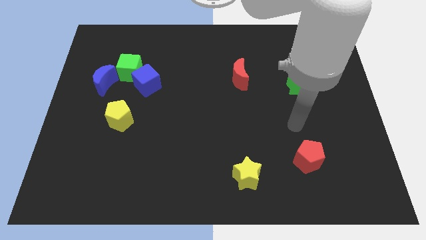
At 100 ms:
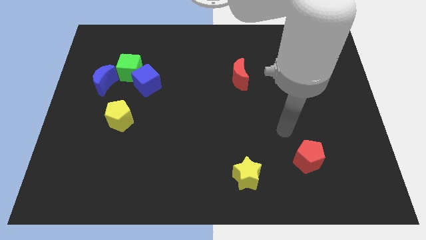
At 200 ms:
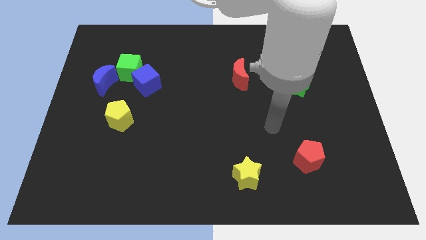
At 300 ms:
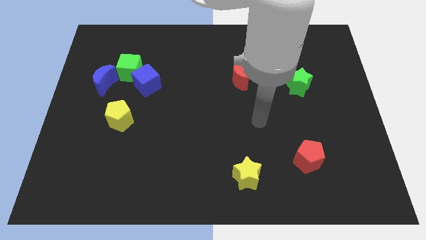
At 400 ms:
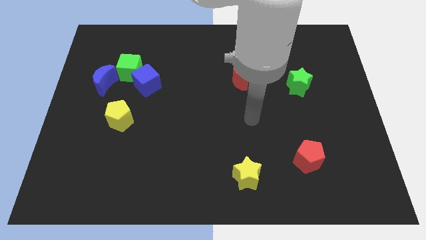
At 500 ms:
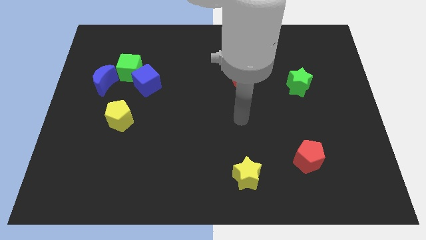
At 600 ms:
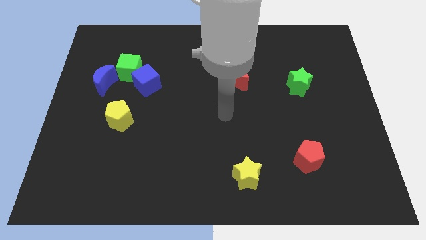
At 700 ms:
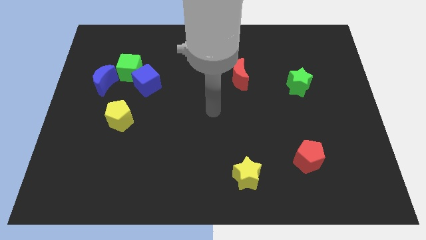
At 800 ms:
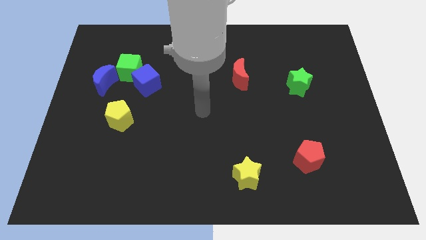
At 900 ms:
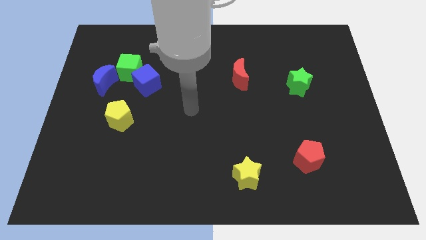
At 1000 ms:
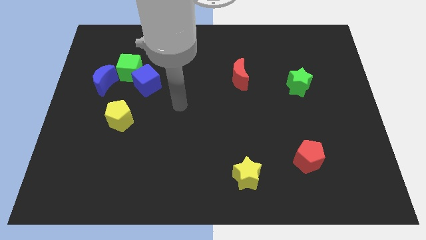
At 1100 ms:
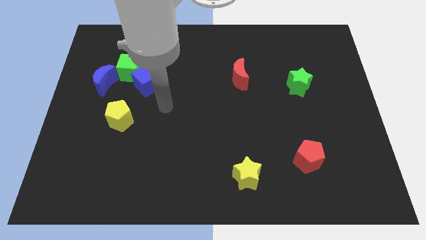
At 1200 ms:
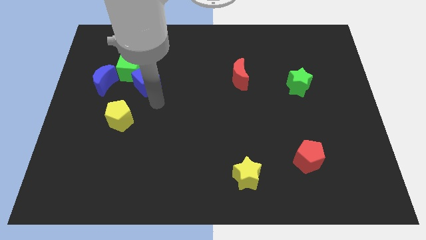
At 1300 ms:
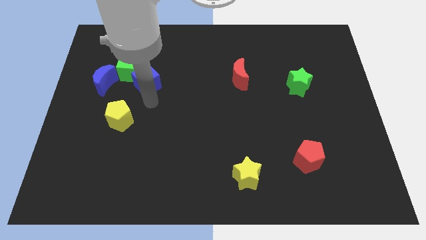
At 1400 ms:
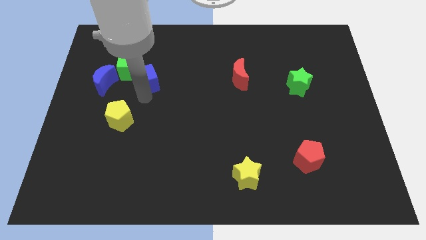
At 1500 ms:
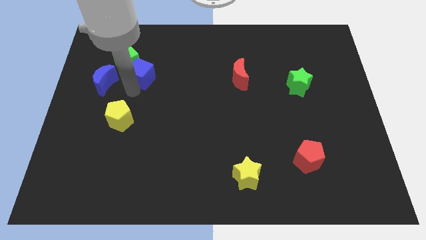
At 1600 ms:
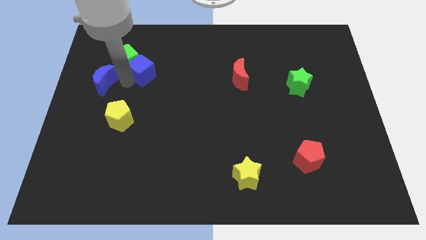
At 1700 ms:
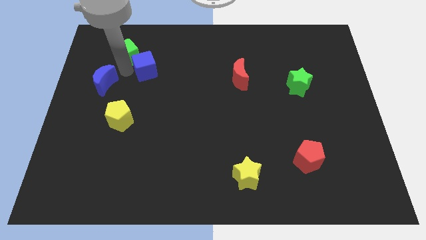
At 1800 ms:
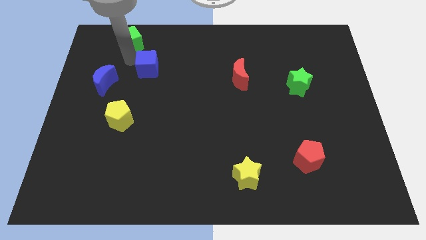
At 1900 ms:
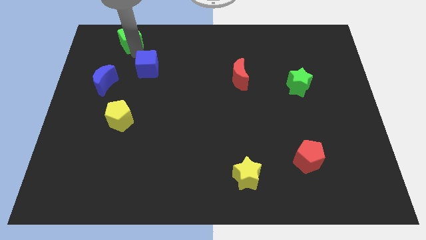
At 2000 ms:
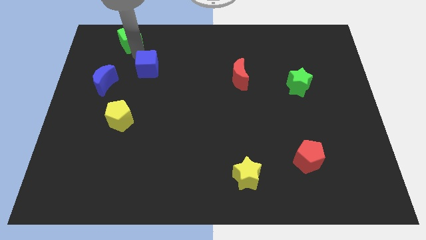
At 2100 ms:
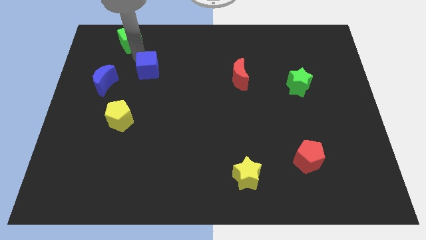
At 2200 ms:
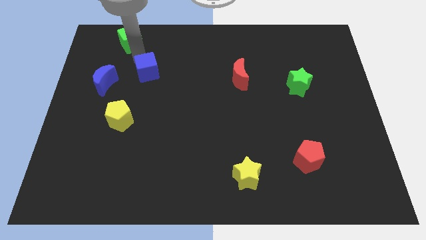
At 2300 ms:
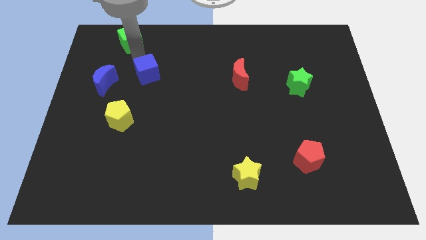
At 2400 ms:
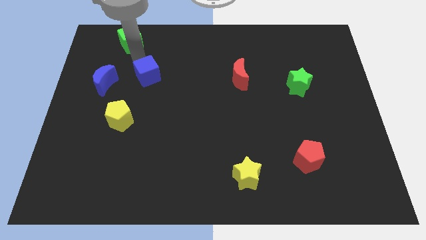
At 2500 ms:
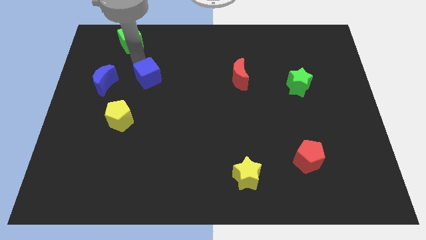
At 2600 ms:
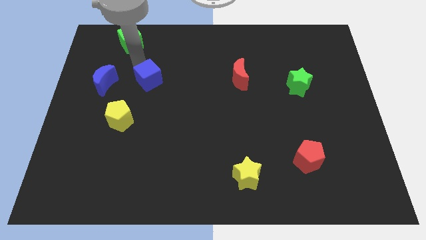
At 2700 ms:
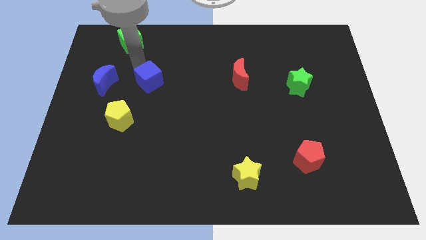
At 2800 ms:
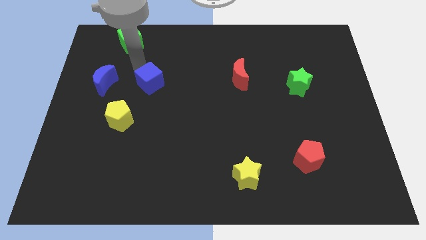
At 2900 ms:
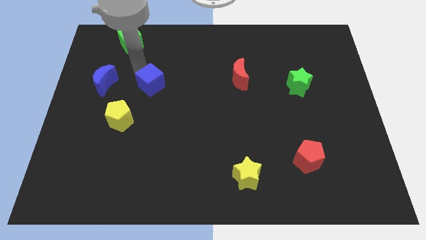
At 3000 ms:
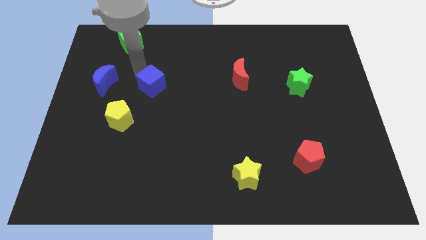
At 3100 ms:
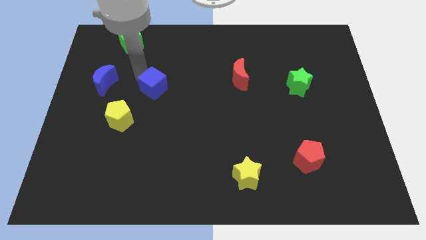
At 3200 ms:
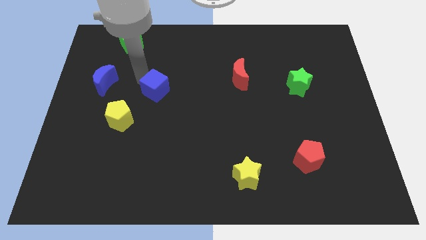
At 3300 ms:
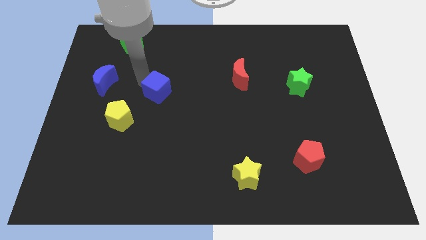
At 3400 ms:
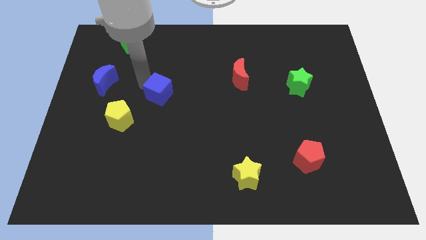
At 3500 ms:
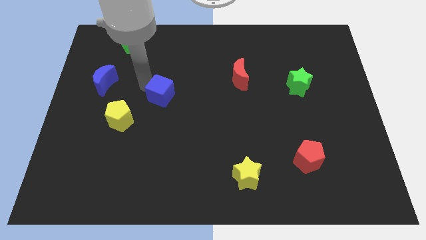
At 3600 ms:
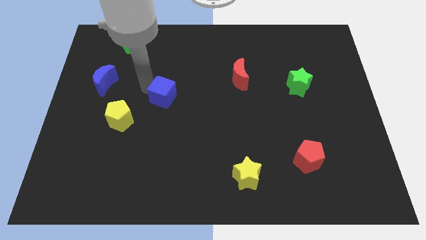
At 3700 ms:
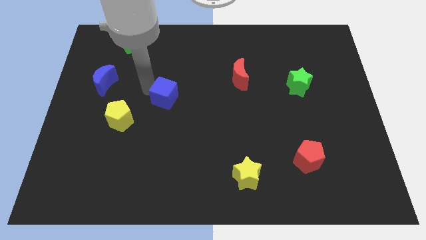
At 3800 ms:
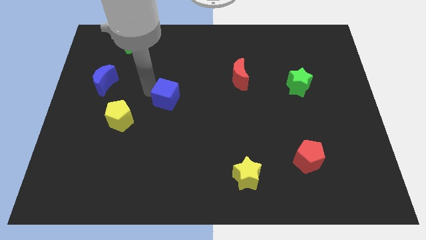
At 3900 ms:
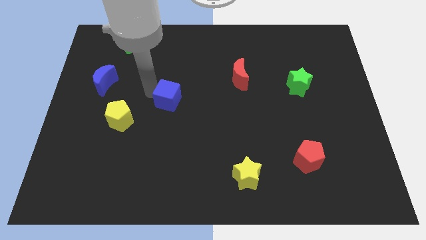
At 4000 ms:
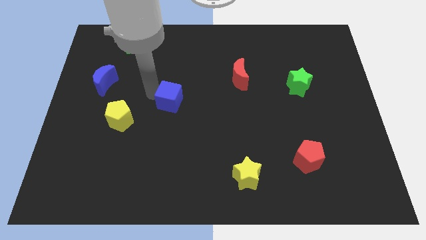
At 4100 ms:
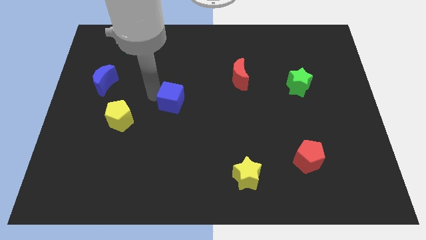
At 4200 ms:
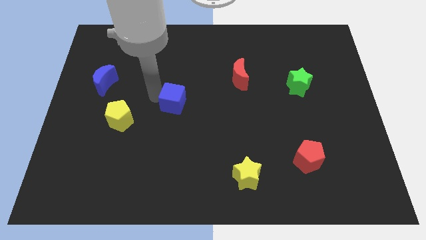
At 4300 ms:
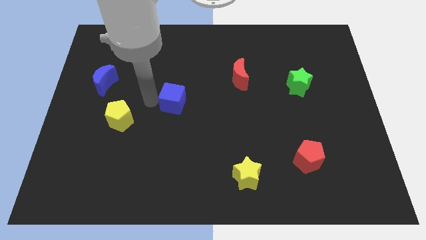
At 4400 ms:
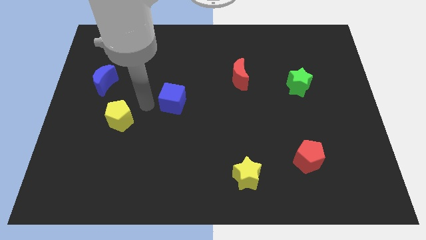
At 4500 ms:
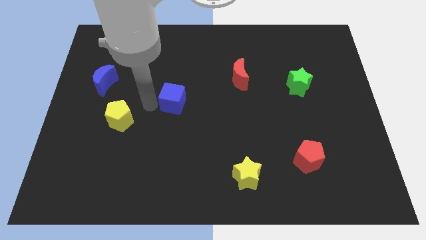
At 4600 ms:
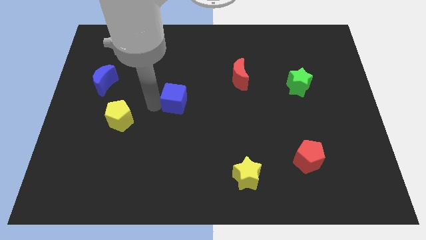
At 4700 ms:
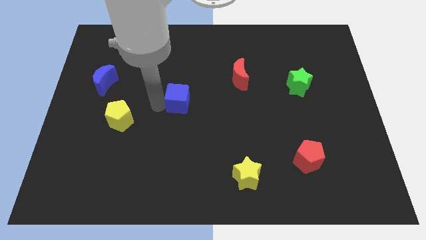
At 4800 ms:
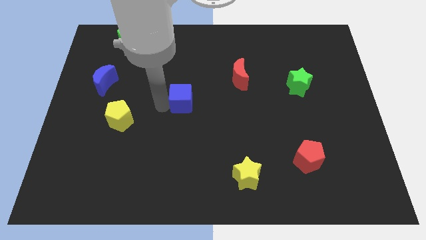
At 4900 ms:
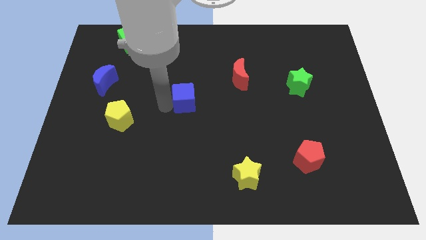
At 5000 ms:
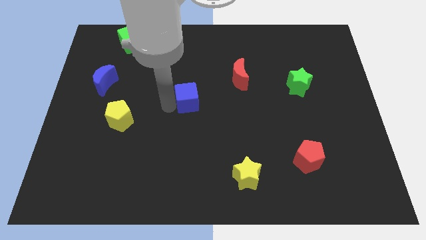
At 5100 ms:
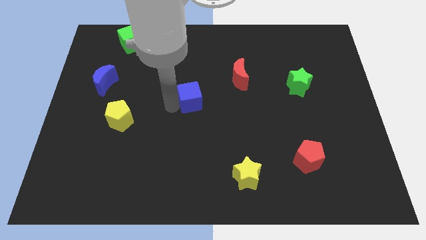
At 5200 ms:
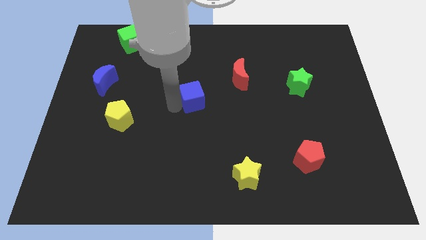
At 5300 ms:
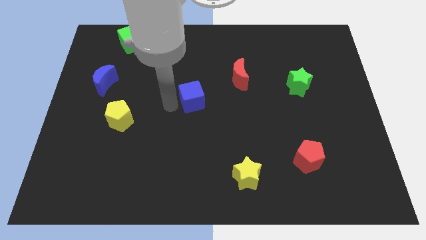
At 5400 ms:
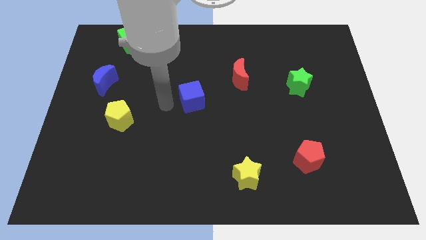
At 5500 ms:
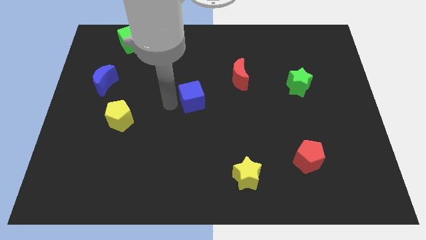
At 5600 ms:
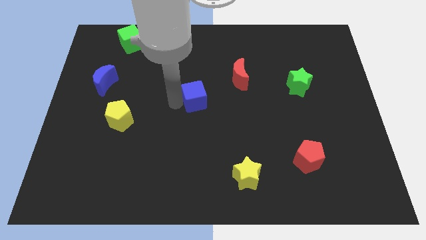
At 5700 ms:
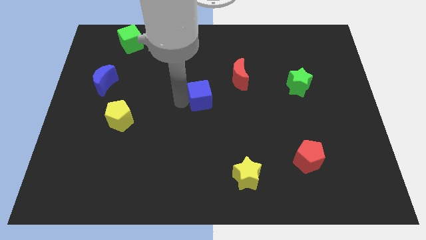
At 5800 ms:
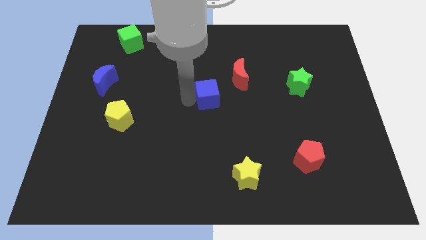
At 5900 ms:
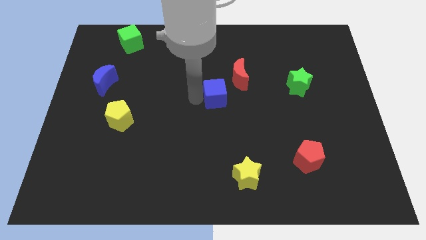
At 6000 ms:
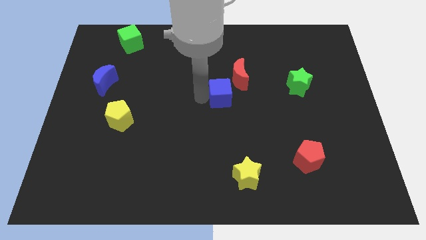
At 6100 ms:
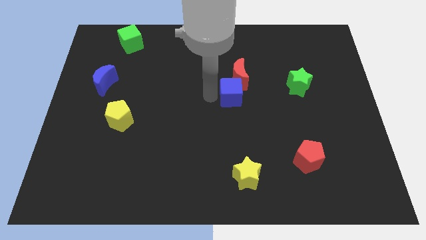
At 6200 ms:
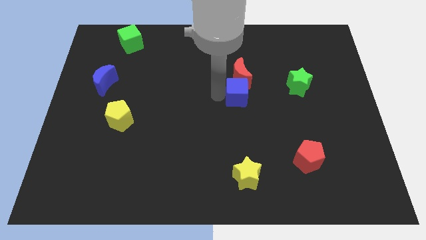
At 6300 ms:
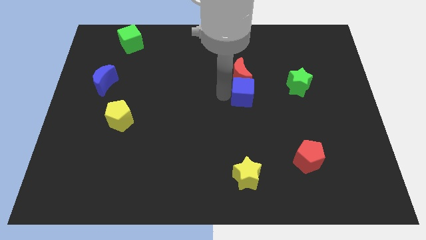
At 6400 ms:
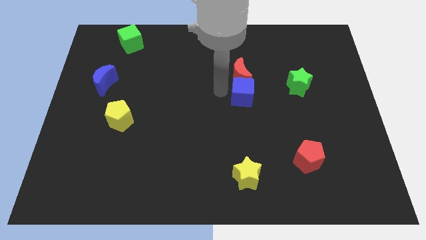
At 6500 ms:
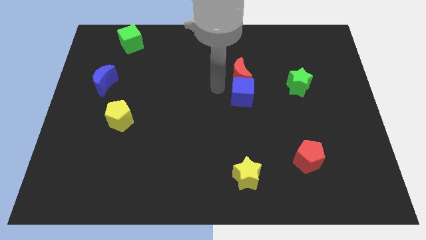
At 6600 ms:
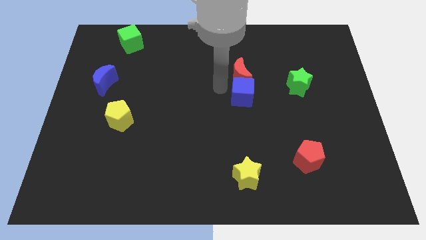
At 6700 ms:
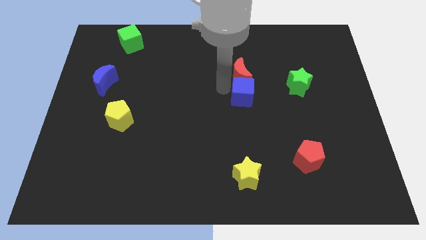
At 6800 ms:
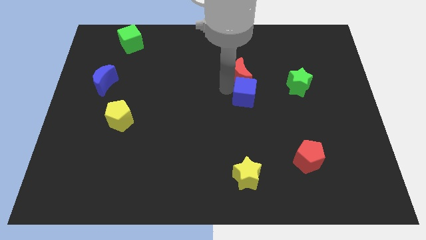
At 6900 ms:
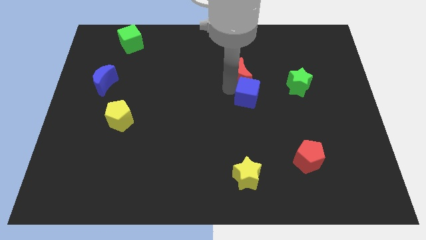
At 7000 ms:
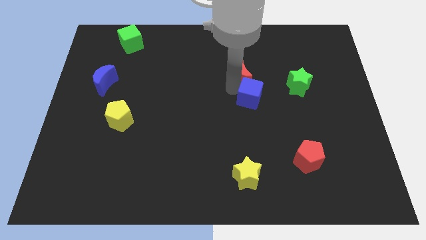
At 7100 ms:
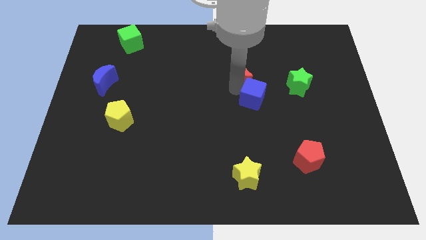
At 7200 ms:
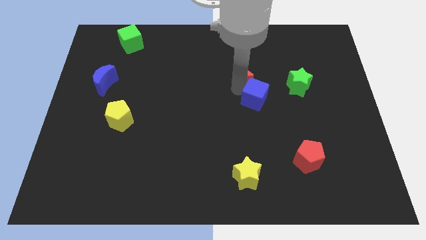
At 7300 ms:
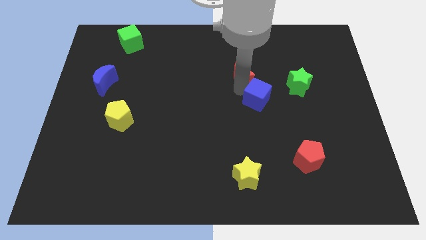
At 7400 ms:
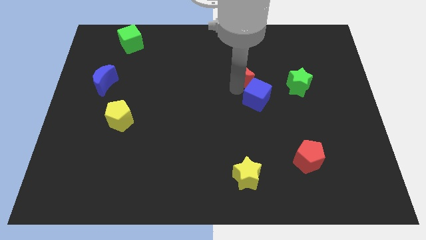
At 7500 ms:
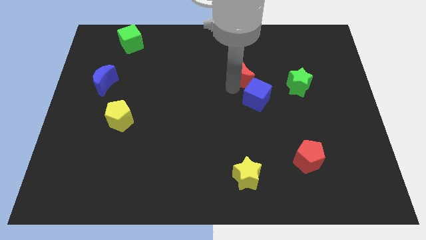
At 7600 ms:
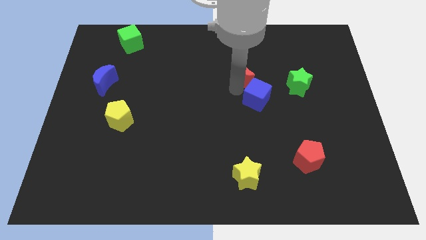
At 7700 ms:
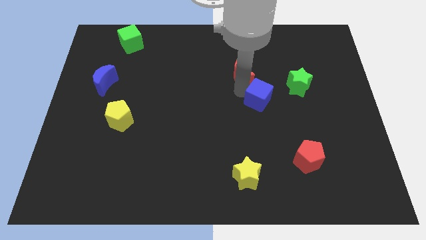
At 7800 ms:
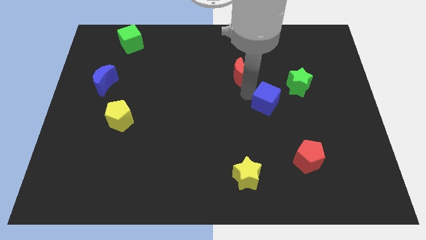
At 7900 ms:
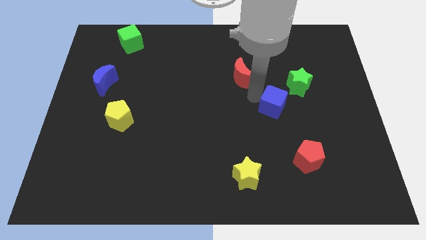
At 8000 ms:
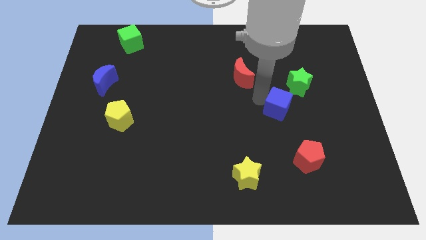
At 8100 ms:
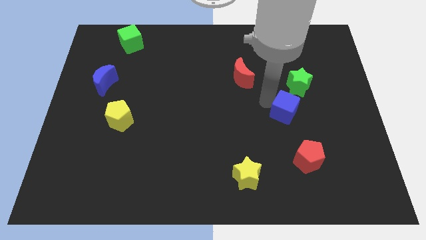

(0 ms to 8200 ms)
push the blue cube to the top of the red pentagon
